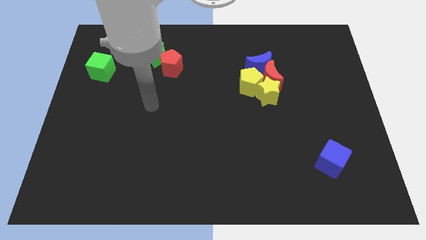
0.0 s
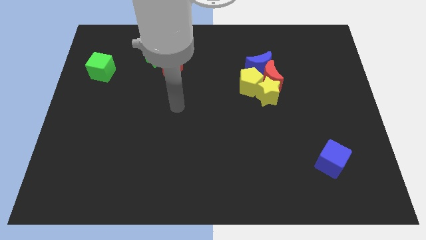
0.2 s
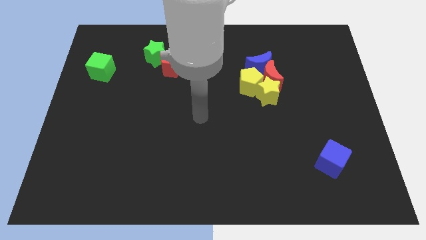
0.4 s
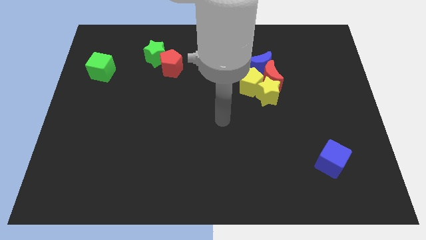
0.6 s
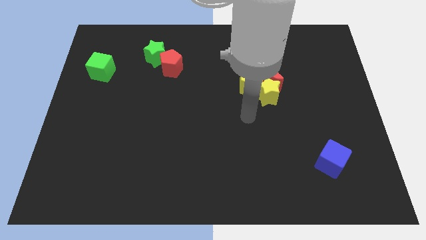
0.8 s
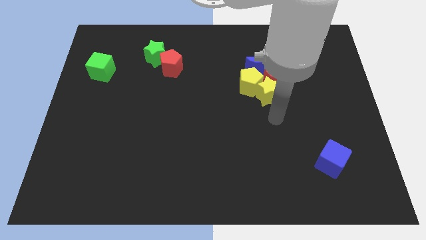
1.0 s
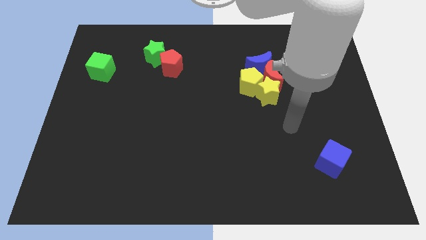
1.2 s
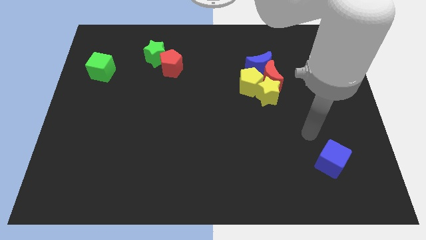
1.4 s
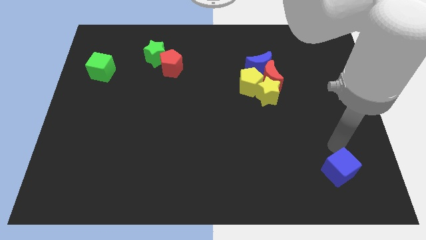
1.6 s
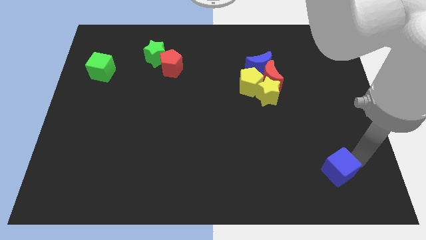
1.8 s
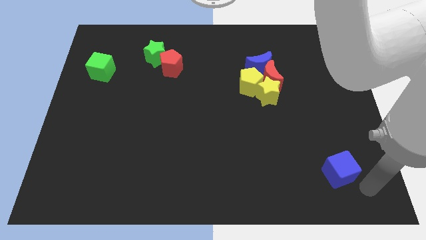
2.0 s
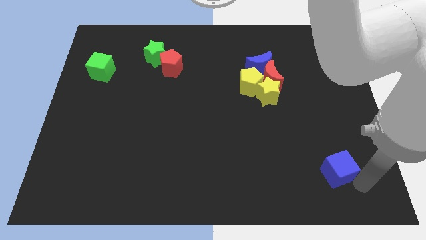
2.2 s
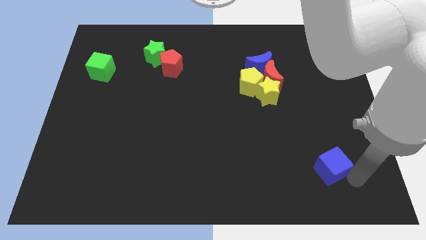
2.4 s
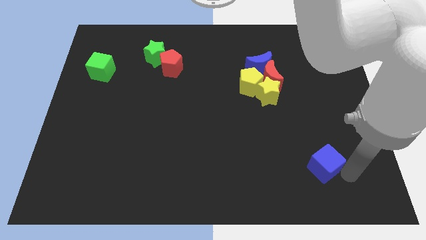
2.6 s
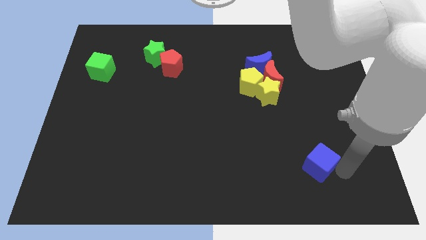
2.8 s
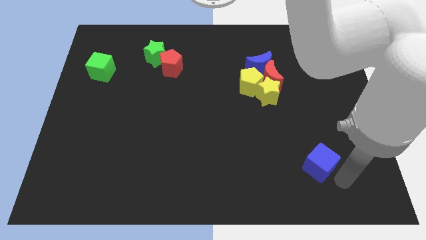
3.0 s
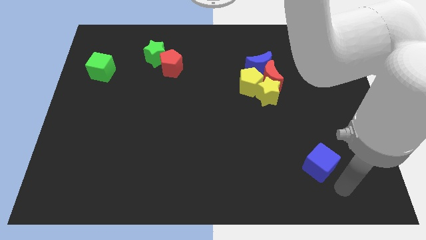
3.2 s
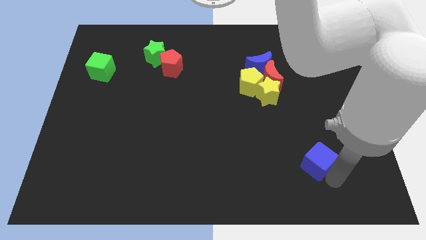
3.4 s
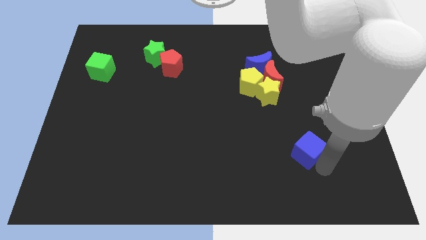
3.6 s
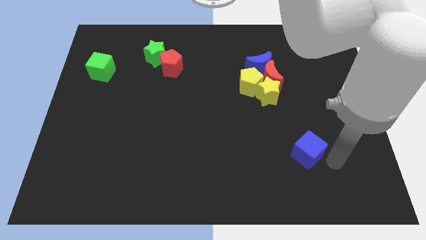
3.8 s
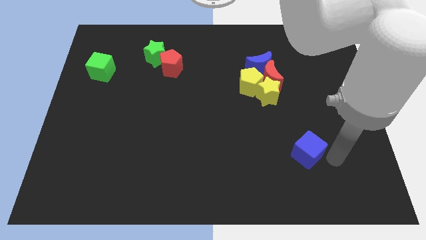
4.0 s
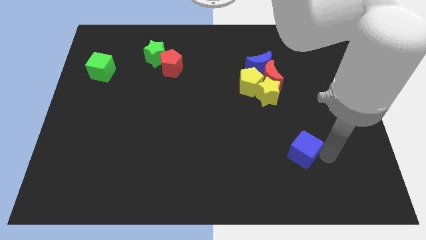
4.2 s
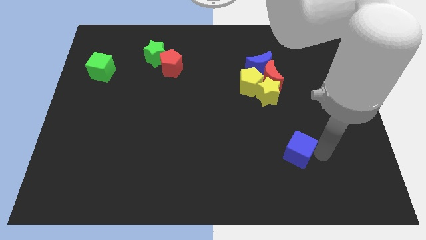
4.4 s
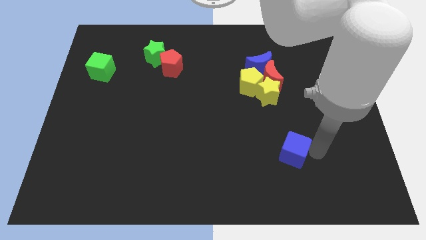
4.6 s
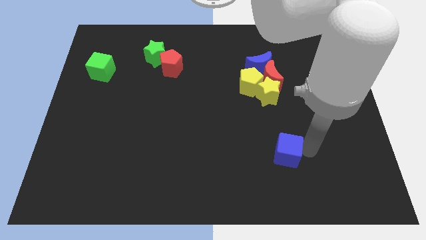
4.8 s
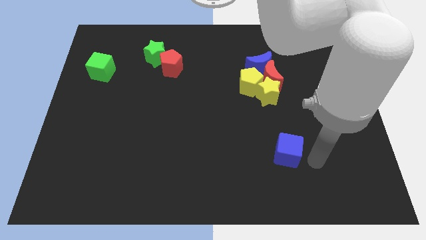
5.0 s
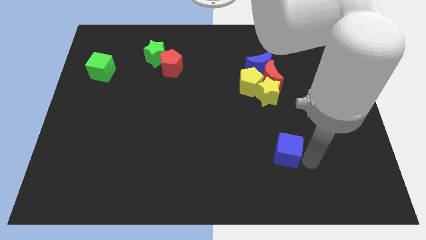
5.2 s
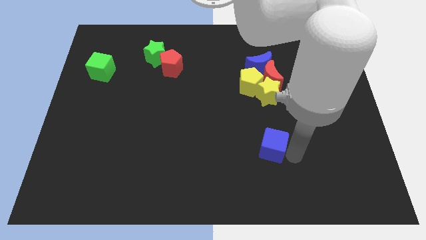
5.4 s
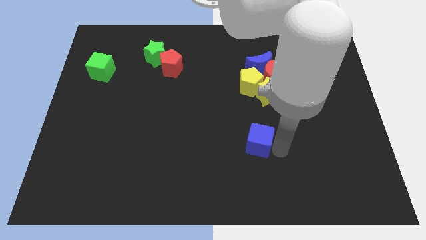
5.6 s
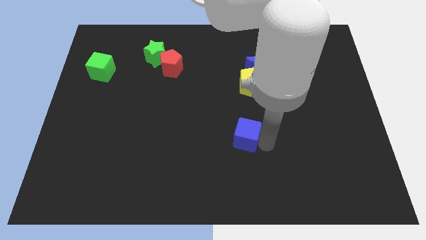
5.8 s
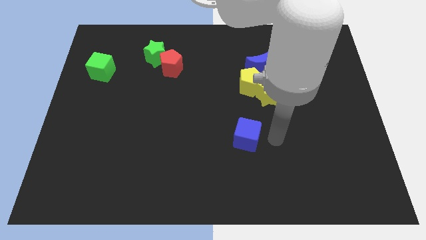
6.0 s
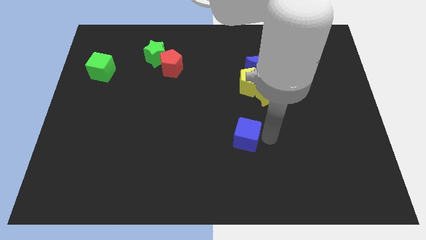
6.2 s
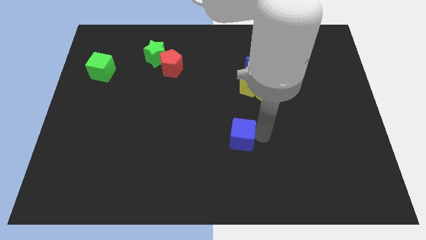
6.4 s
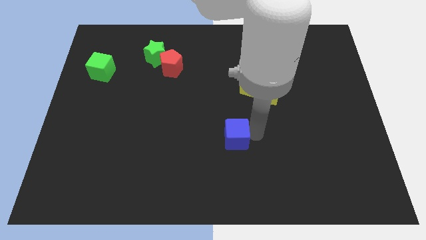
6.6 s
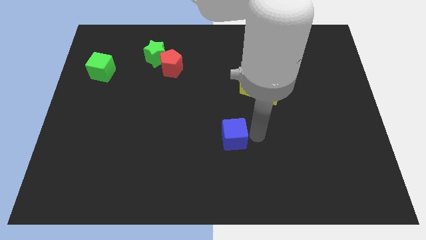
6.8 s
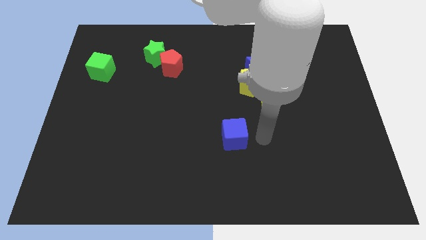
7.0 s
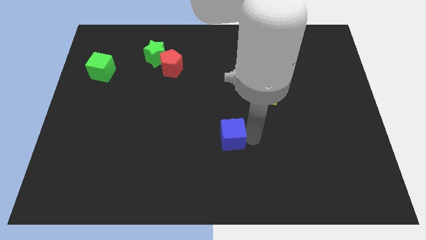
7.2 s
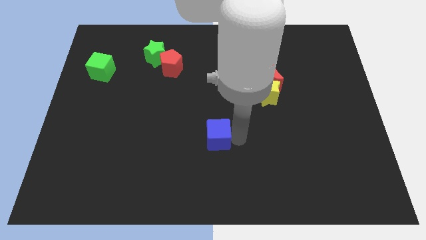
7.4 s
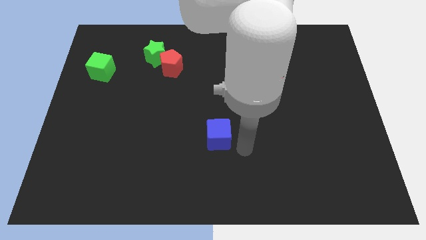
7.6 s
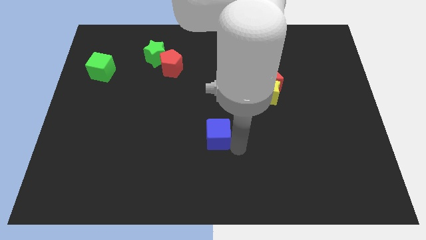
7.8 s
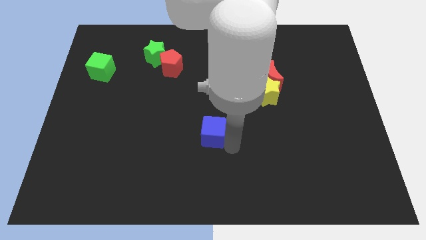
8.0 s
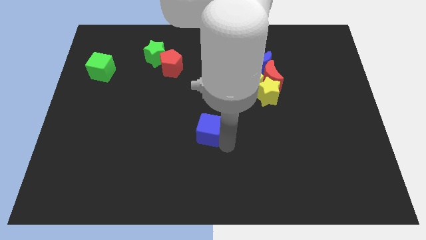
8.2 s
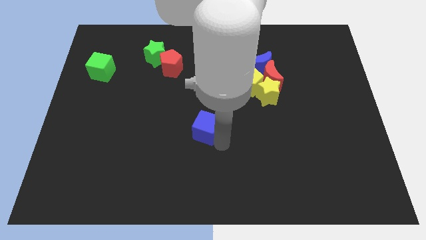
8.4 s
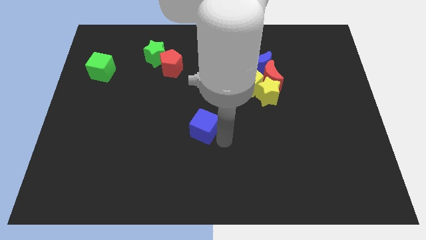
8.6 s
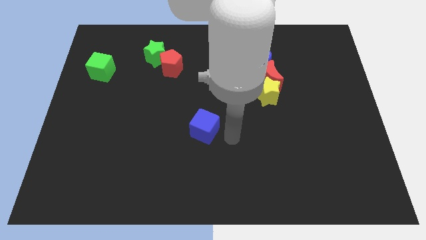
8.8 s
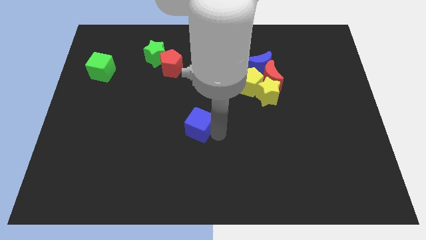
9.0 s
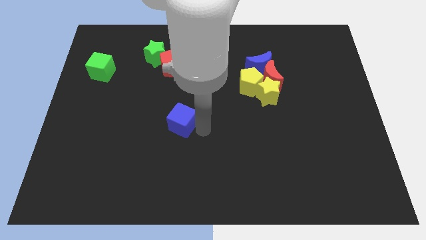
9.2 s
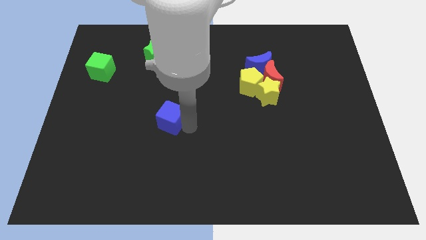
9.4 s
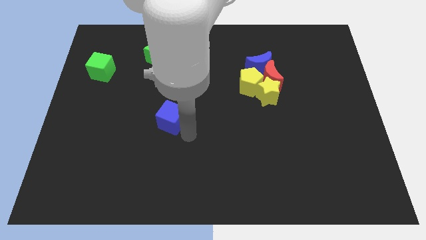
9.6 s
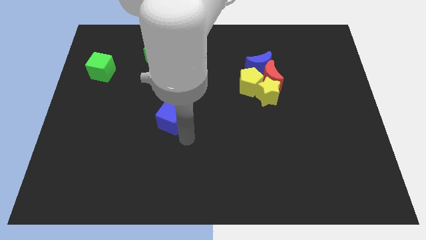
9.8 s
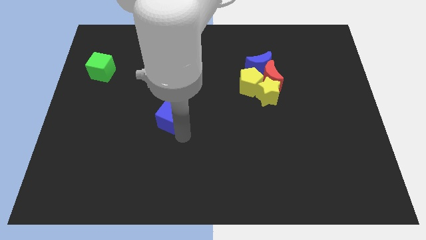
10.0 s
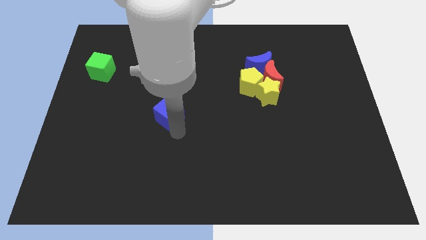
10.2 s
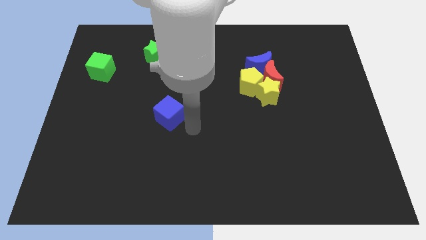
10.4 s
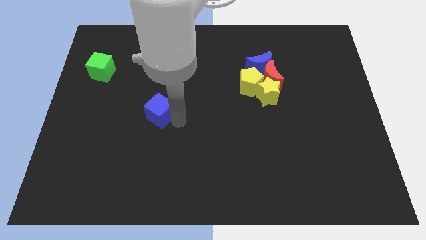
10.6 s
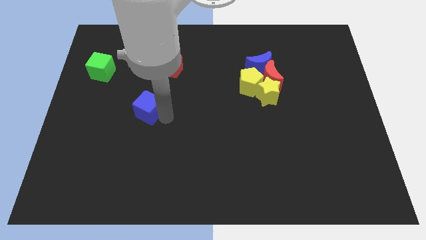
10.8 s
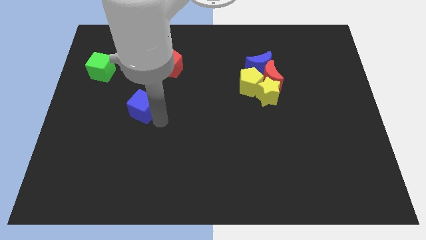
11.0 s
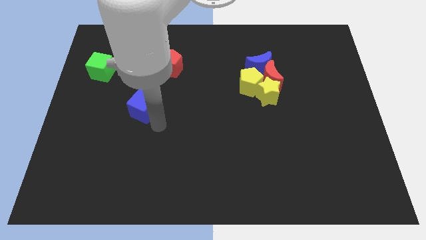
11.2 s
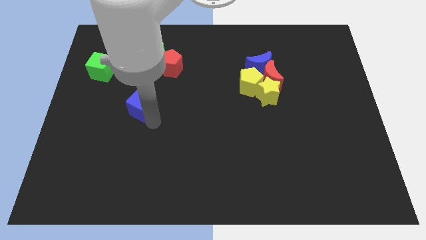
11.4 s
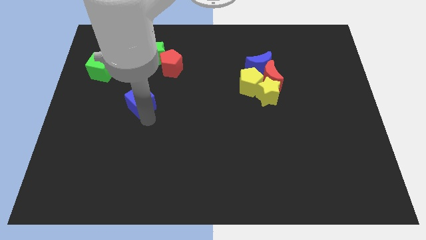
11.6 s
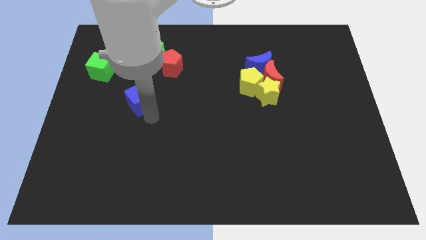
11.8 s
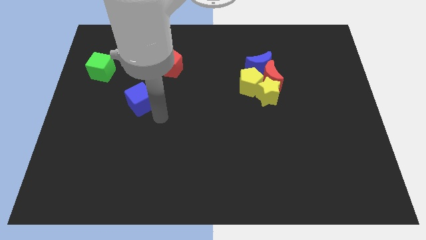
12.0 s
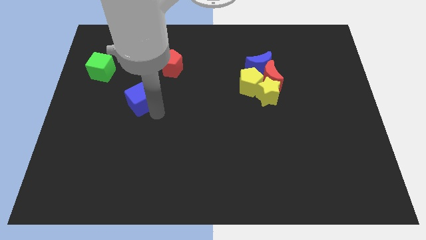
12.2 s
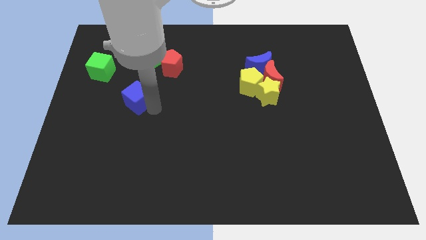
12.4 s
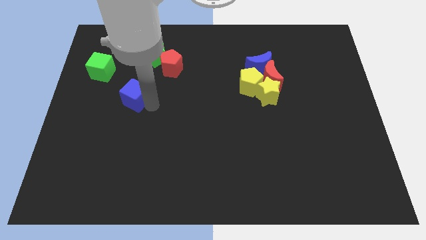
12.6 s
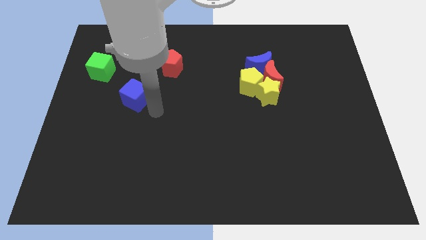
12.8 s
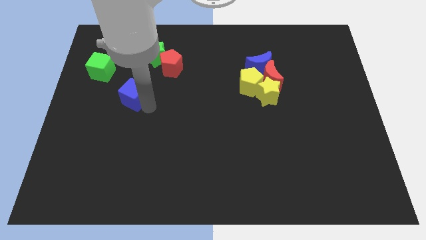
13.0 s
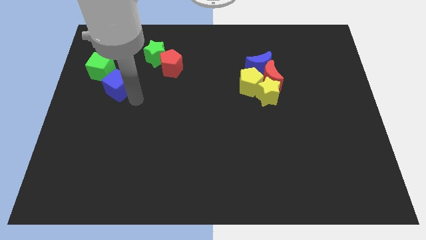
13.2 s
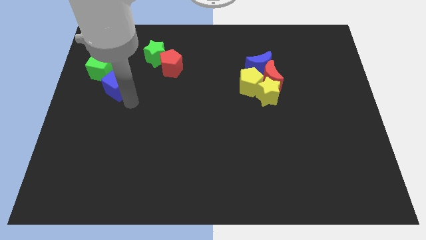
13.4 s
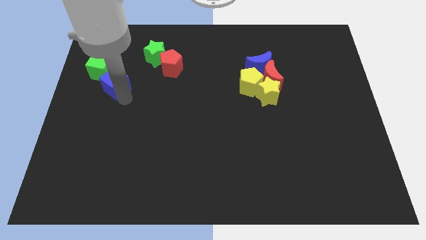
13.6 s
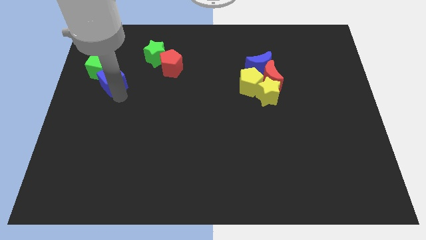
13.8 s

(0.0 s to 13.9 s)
move the blue cube to the green cube
